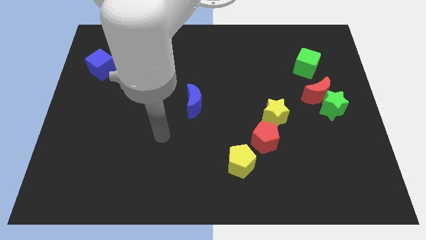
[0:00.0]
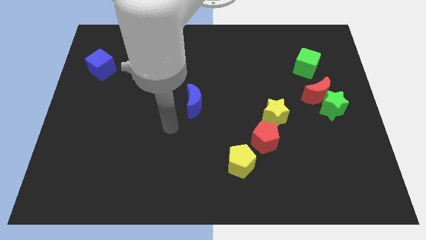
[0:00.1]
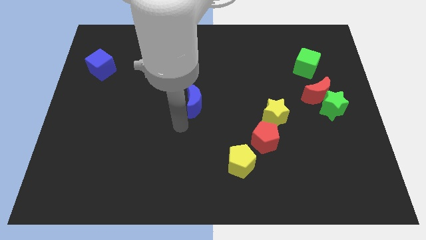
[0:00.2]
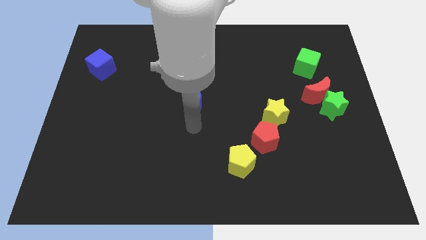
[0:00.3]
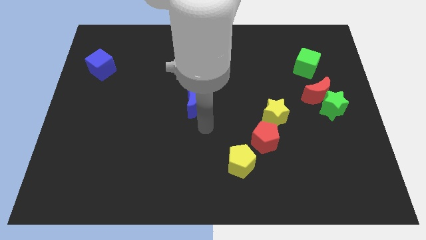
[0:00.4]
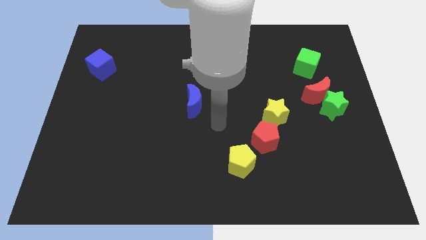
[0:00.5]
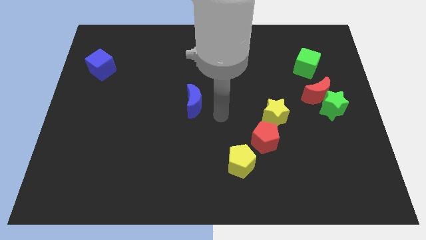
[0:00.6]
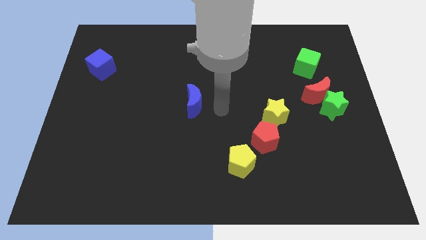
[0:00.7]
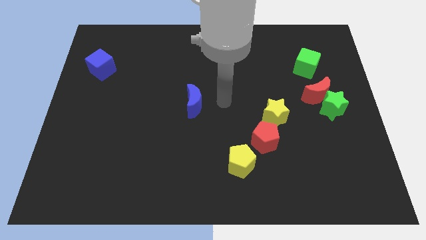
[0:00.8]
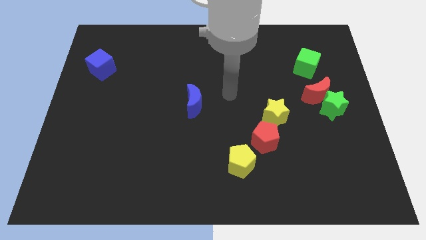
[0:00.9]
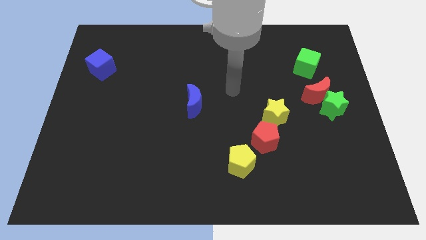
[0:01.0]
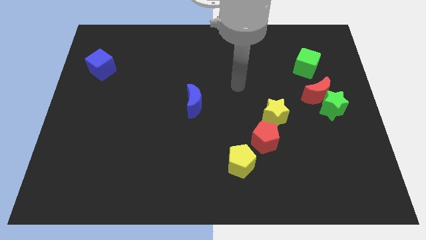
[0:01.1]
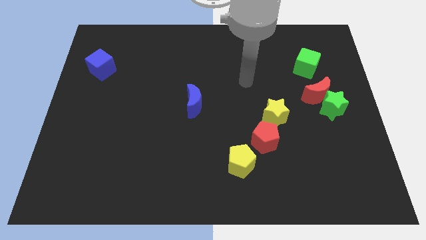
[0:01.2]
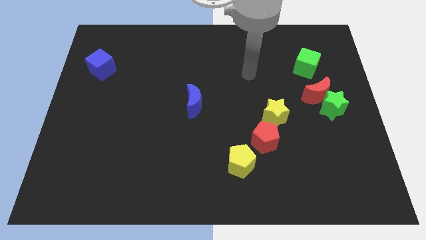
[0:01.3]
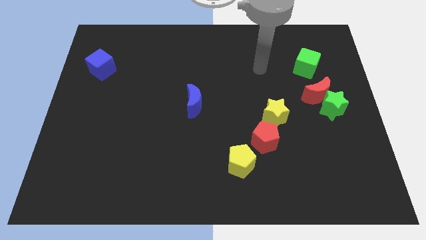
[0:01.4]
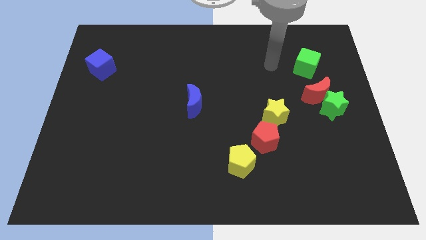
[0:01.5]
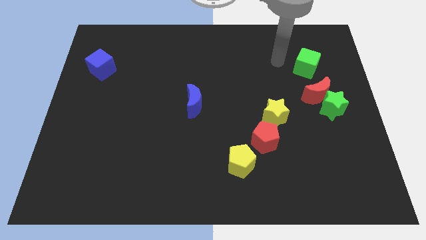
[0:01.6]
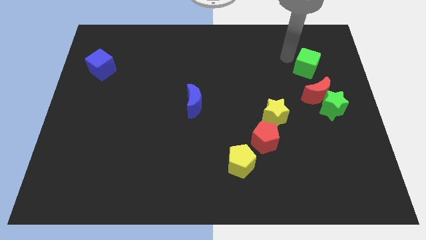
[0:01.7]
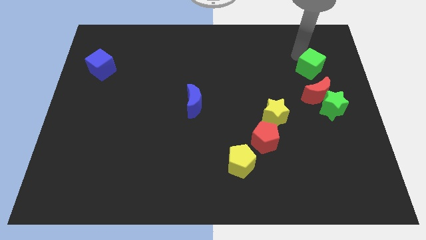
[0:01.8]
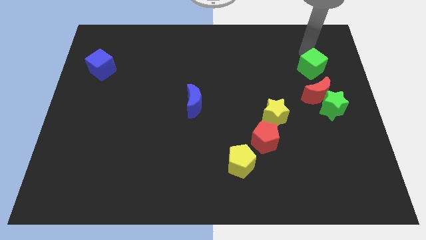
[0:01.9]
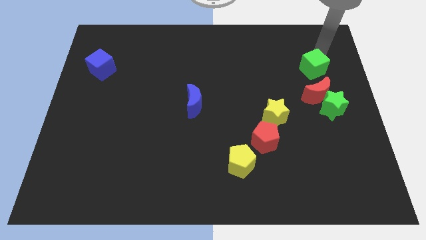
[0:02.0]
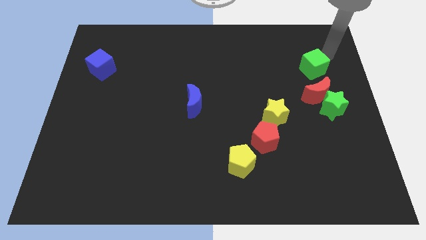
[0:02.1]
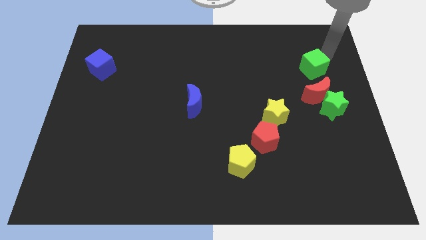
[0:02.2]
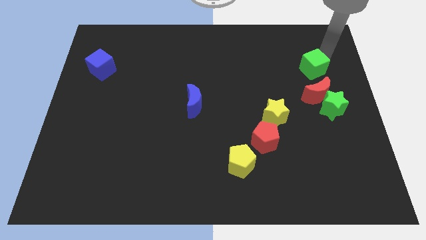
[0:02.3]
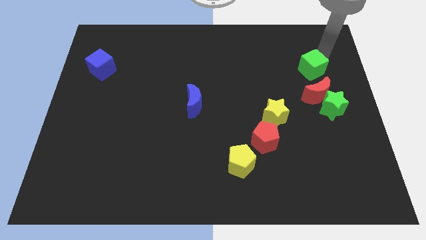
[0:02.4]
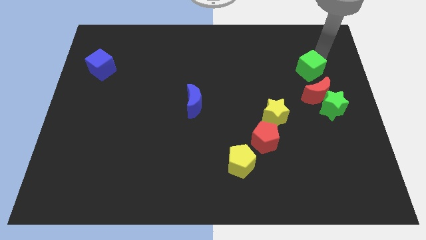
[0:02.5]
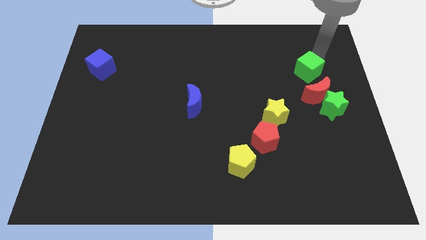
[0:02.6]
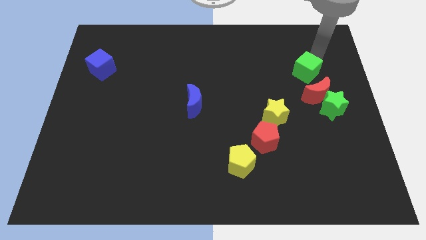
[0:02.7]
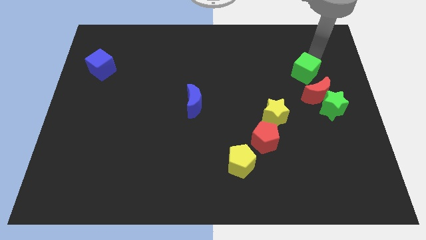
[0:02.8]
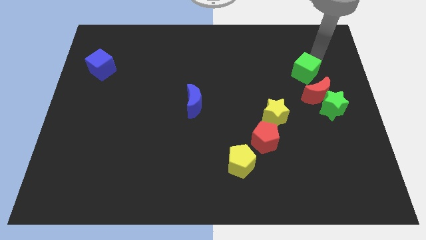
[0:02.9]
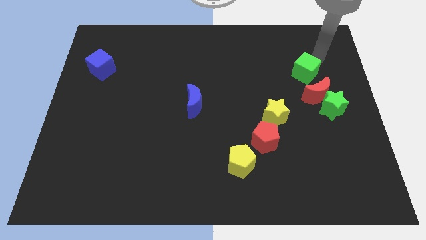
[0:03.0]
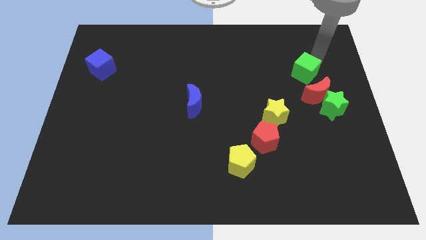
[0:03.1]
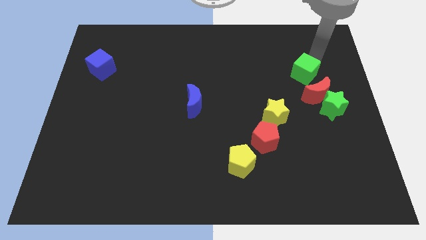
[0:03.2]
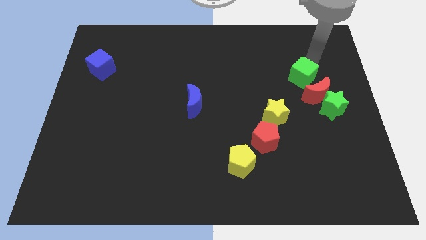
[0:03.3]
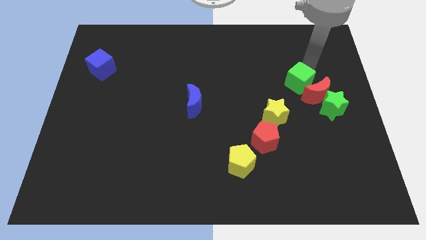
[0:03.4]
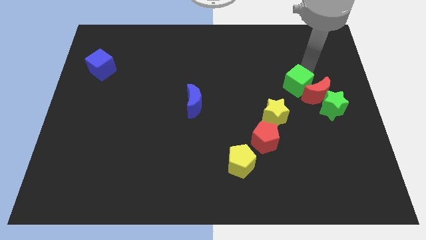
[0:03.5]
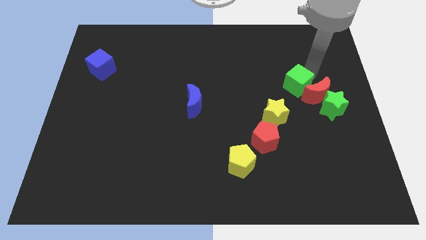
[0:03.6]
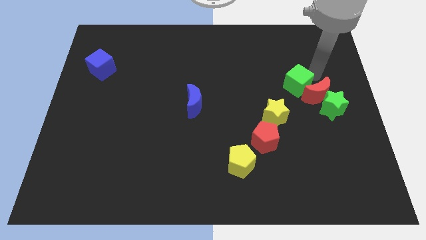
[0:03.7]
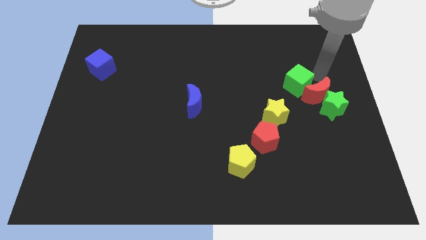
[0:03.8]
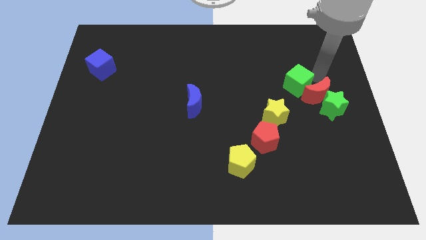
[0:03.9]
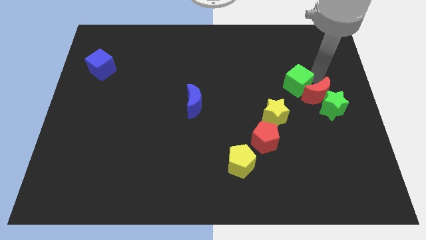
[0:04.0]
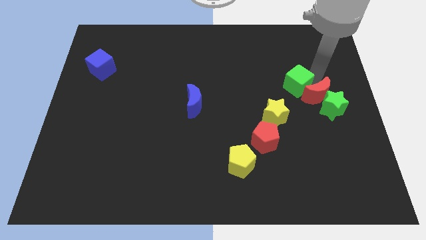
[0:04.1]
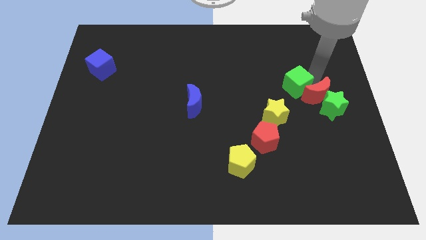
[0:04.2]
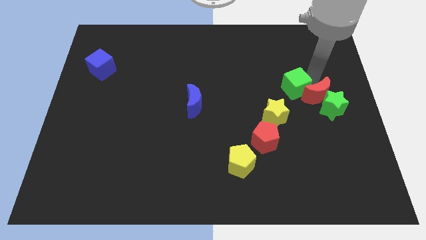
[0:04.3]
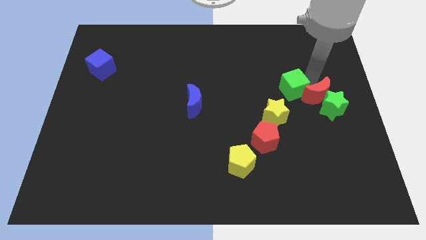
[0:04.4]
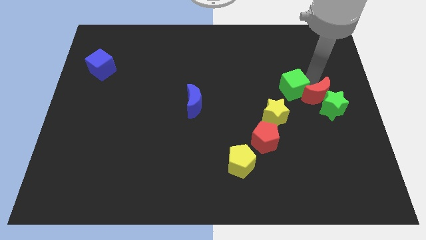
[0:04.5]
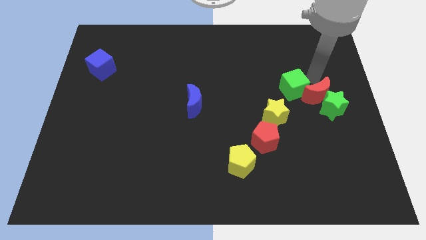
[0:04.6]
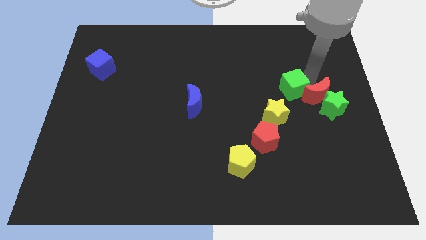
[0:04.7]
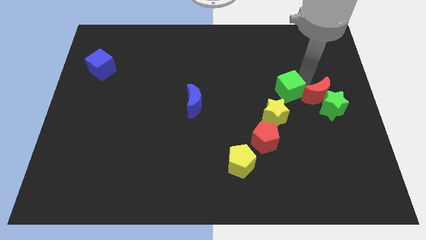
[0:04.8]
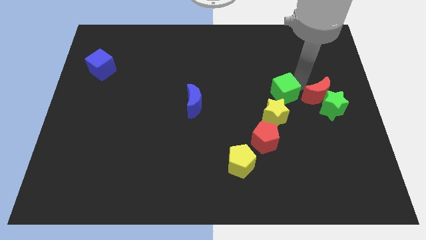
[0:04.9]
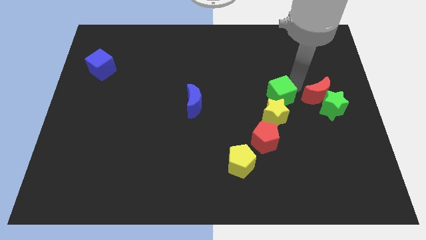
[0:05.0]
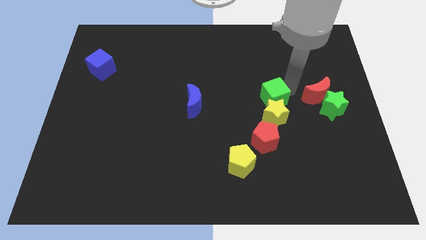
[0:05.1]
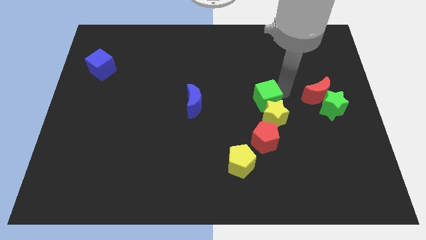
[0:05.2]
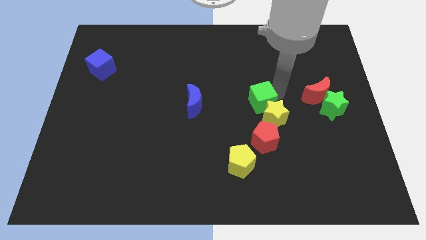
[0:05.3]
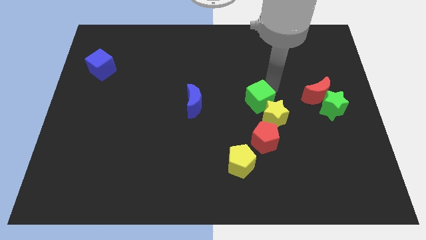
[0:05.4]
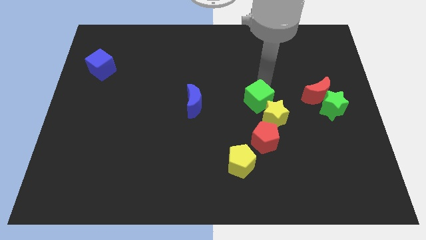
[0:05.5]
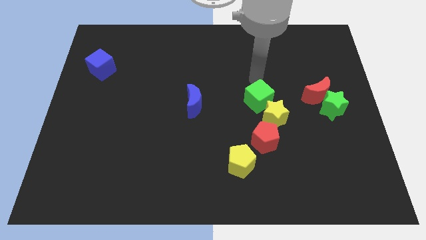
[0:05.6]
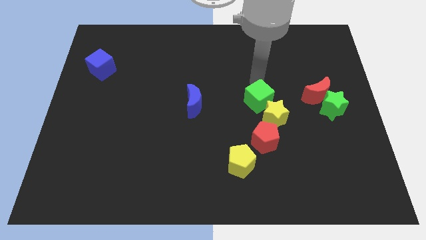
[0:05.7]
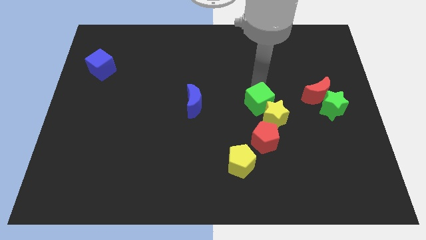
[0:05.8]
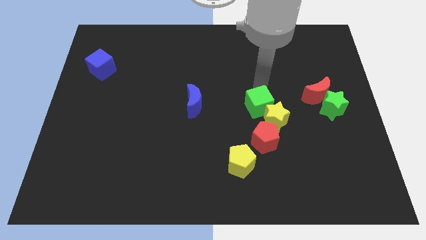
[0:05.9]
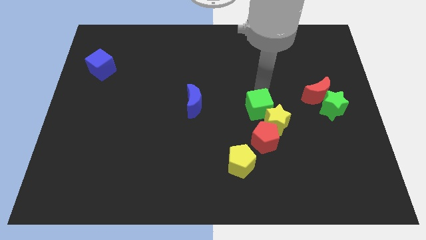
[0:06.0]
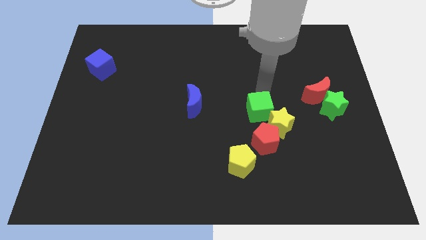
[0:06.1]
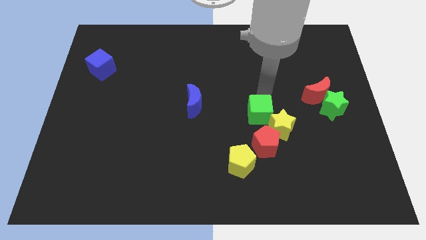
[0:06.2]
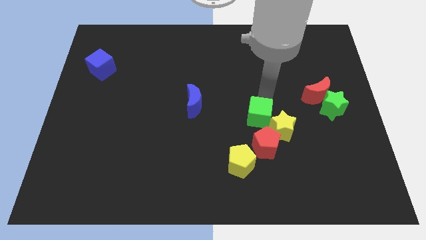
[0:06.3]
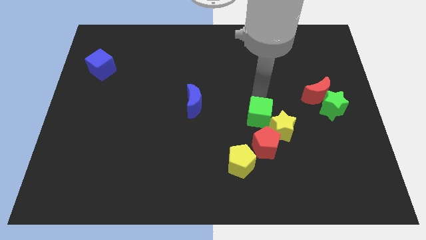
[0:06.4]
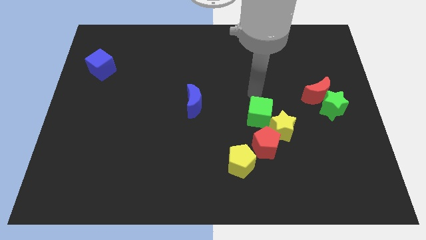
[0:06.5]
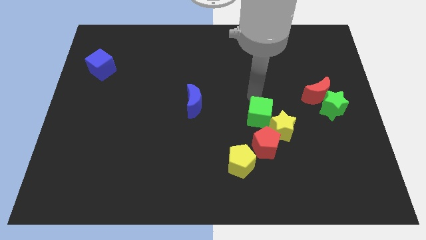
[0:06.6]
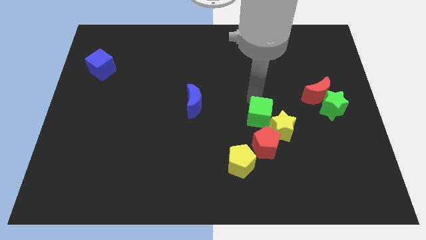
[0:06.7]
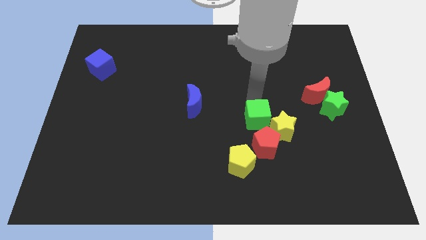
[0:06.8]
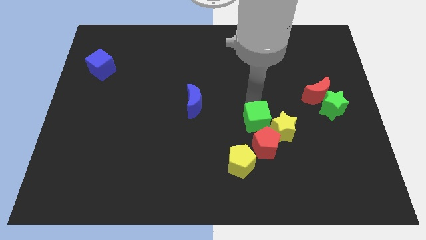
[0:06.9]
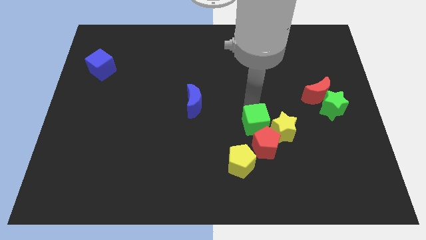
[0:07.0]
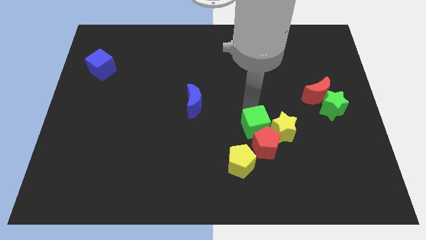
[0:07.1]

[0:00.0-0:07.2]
move the green cube towards the red pentagon
